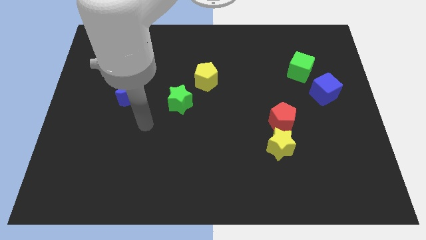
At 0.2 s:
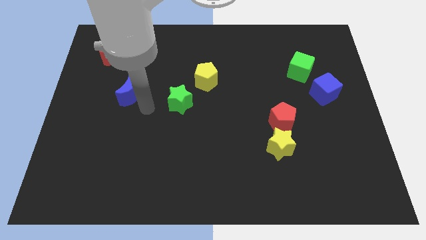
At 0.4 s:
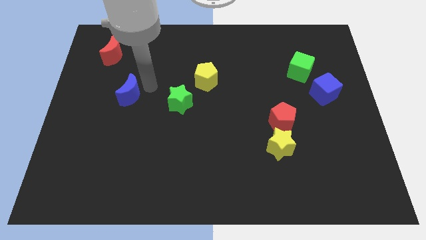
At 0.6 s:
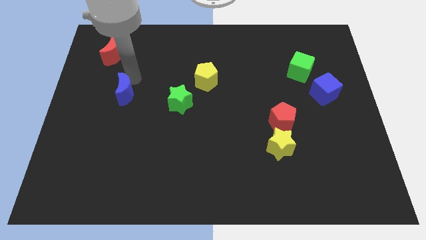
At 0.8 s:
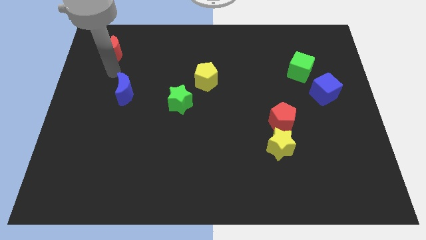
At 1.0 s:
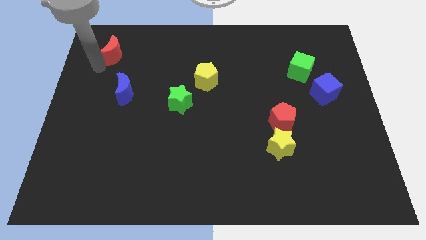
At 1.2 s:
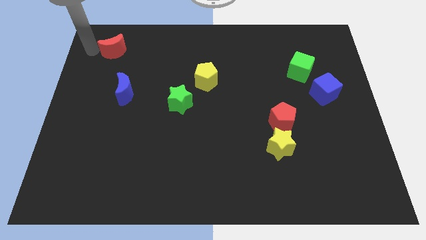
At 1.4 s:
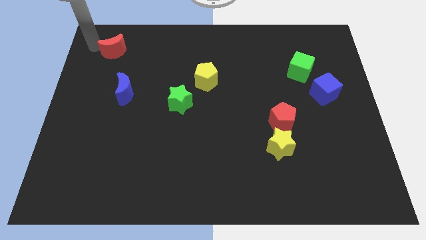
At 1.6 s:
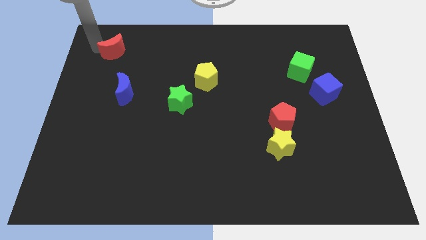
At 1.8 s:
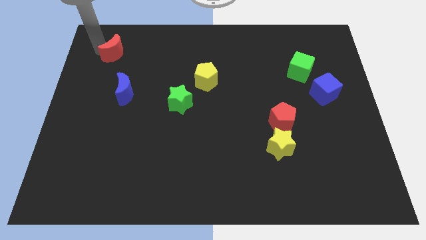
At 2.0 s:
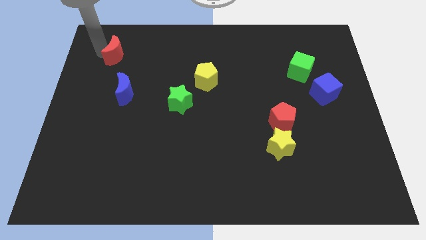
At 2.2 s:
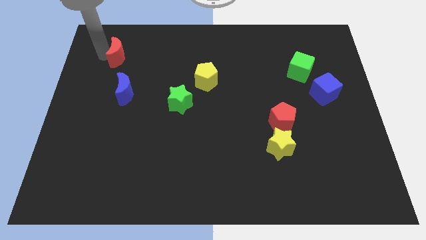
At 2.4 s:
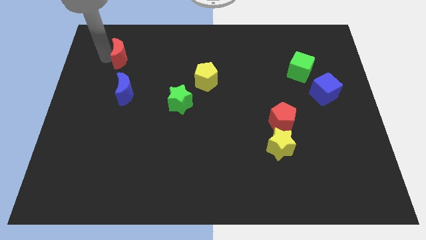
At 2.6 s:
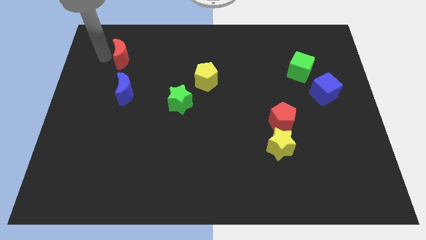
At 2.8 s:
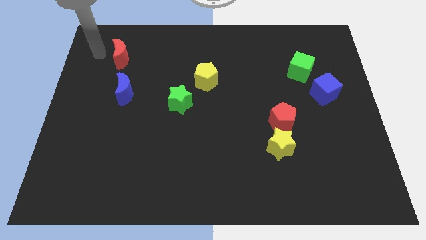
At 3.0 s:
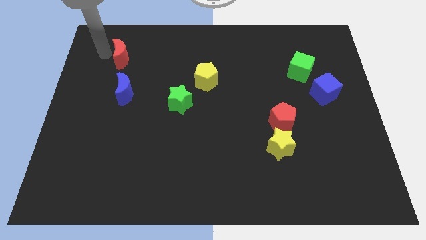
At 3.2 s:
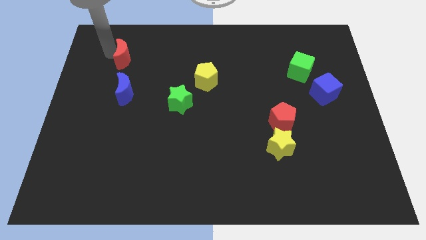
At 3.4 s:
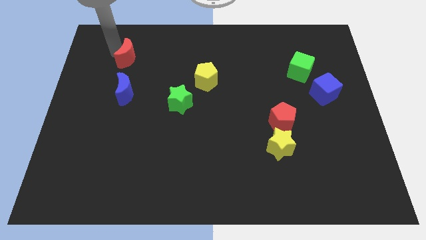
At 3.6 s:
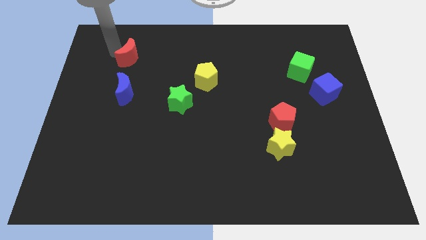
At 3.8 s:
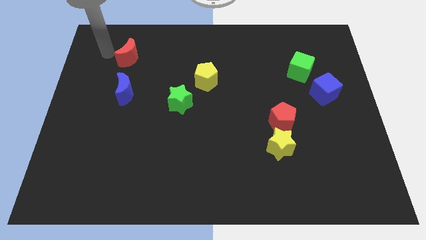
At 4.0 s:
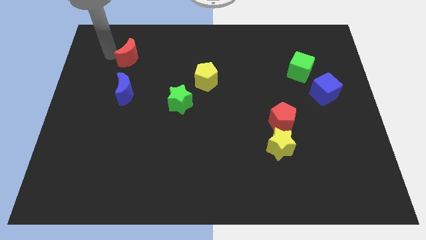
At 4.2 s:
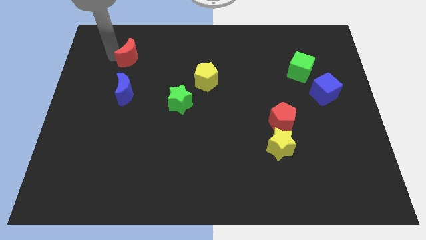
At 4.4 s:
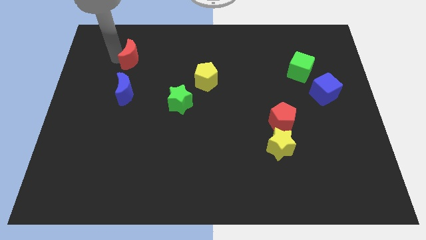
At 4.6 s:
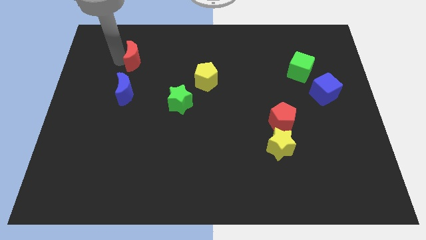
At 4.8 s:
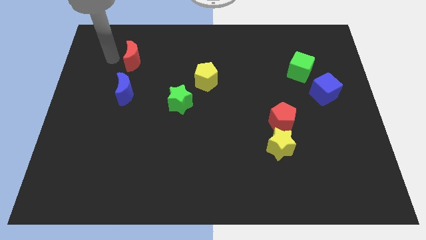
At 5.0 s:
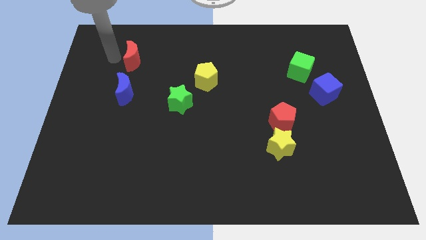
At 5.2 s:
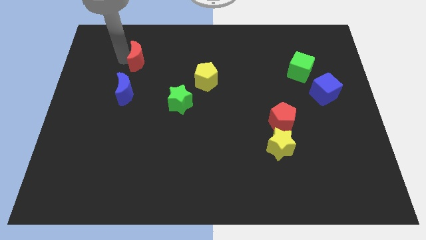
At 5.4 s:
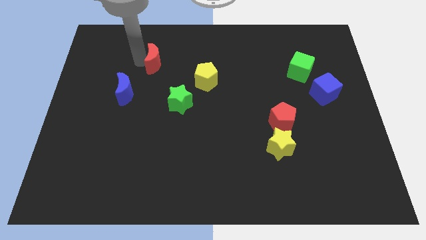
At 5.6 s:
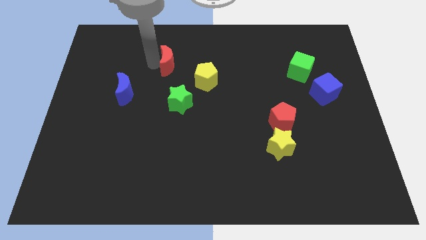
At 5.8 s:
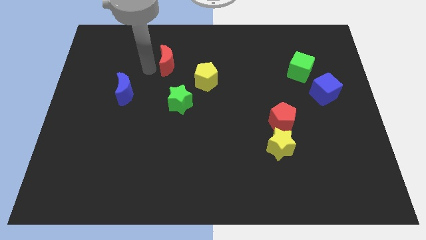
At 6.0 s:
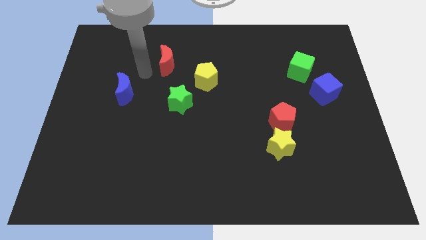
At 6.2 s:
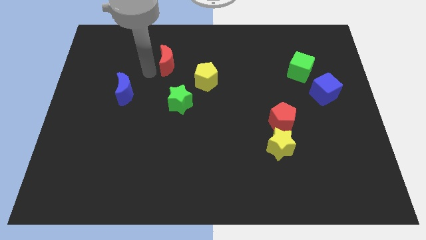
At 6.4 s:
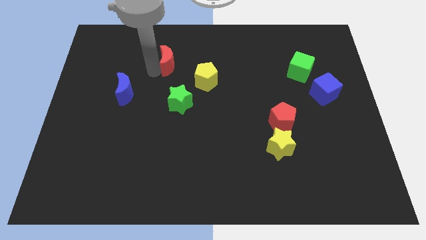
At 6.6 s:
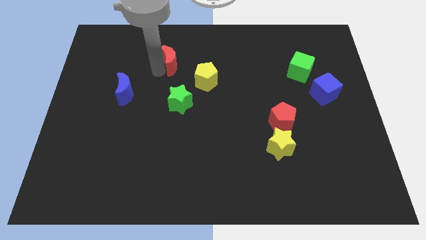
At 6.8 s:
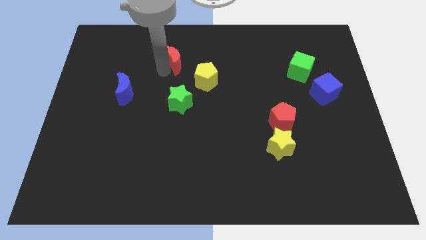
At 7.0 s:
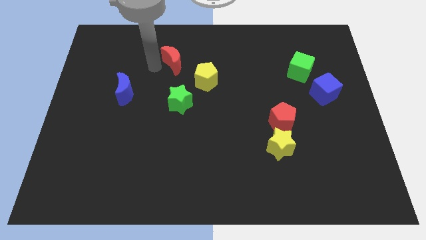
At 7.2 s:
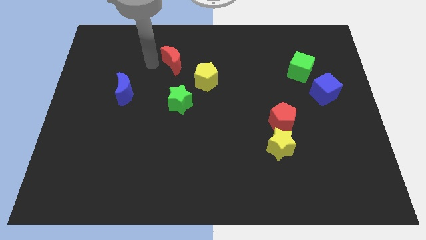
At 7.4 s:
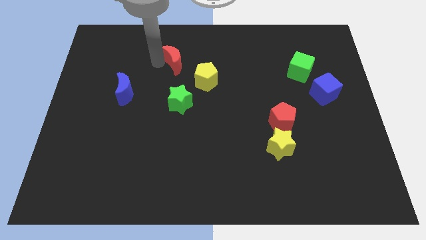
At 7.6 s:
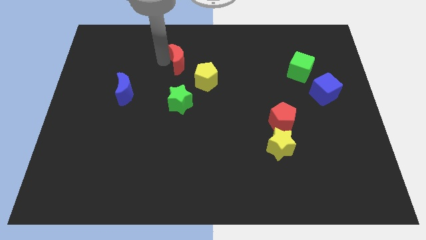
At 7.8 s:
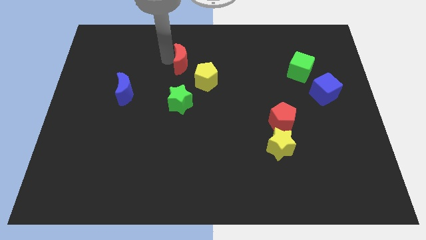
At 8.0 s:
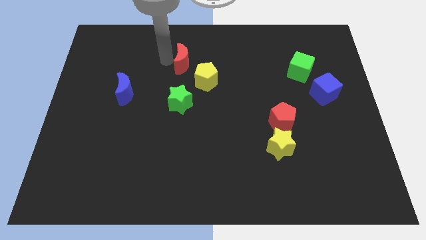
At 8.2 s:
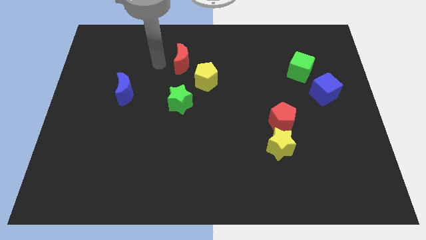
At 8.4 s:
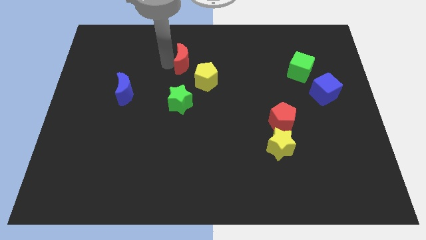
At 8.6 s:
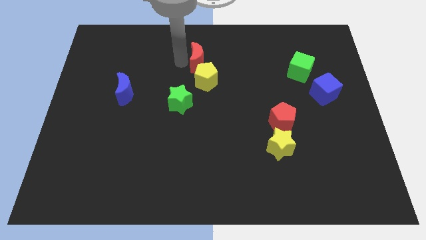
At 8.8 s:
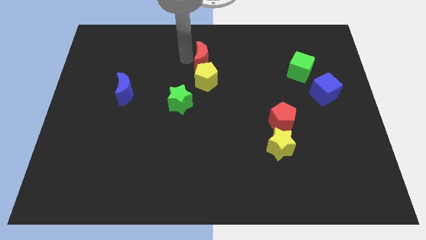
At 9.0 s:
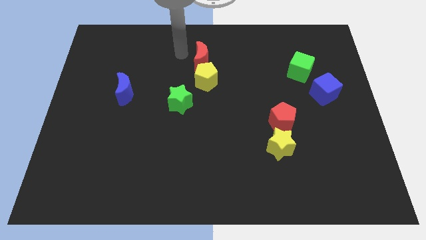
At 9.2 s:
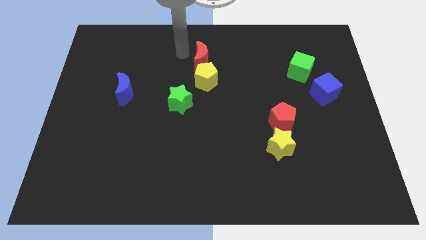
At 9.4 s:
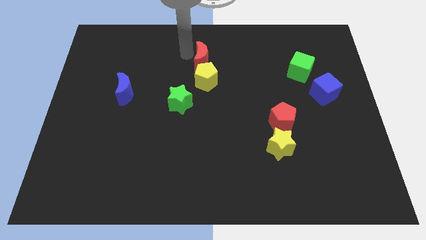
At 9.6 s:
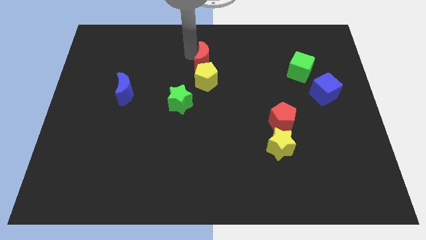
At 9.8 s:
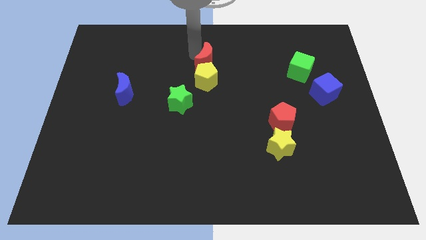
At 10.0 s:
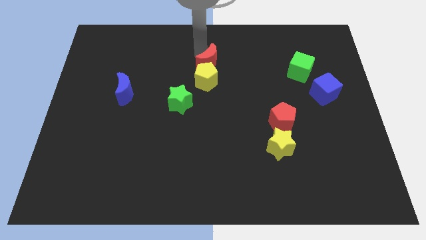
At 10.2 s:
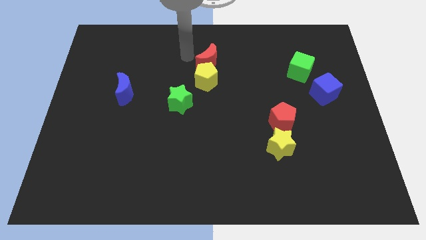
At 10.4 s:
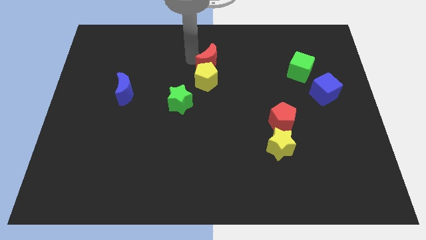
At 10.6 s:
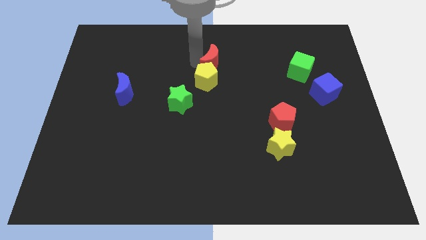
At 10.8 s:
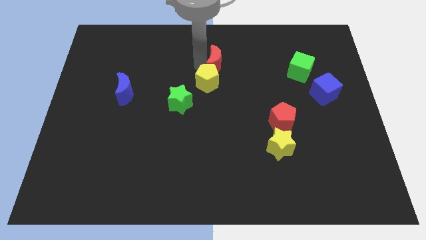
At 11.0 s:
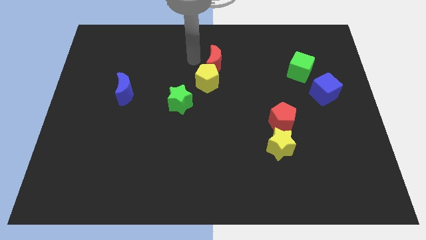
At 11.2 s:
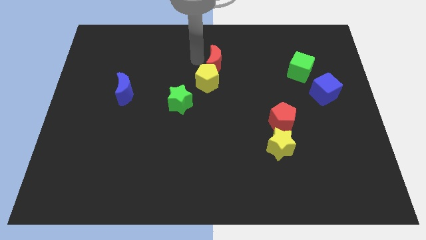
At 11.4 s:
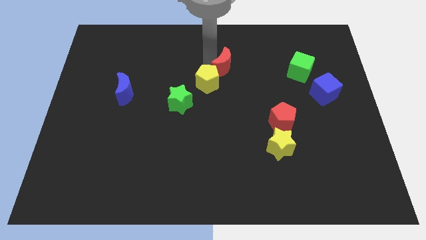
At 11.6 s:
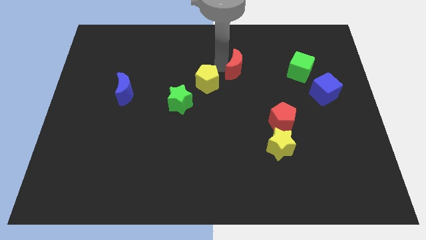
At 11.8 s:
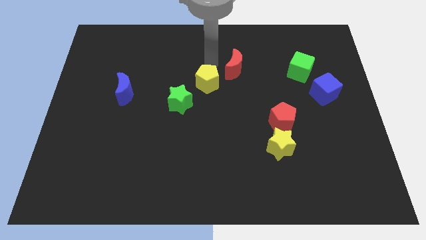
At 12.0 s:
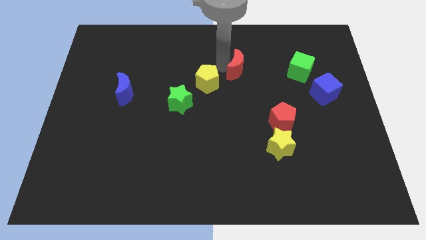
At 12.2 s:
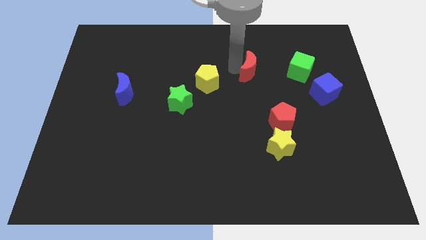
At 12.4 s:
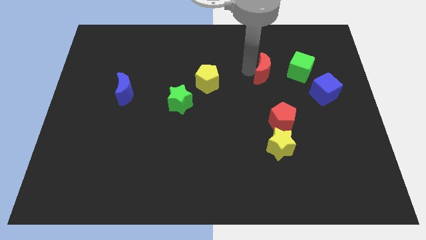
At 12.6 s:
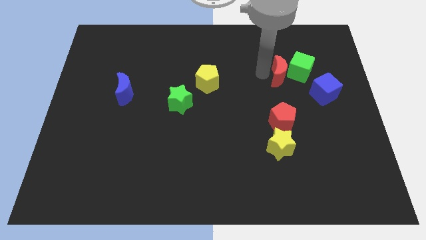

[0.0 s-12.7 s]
slide the red moon next to the green cube

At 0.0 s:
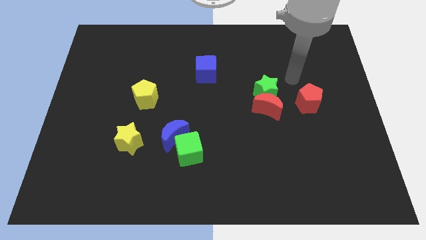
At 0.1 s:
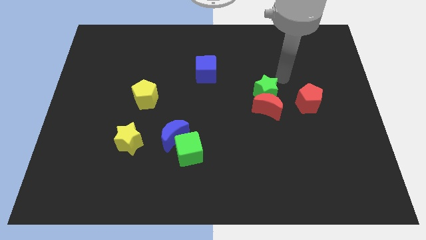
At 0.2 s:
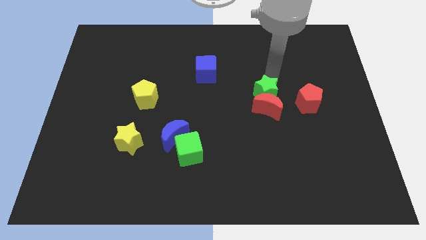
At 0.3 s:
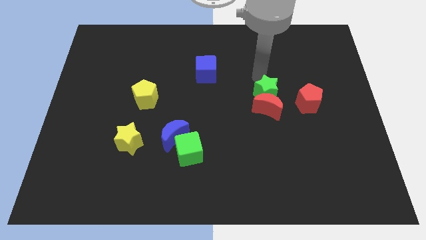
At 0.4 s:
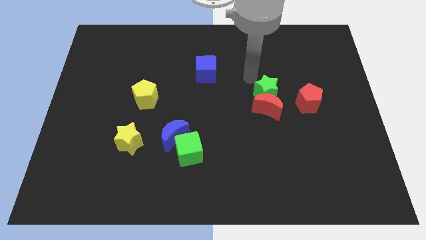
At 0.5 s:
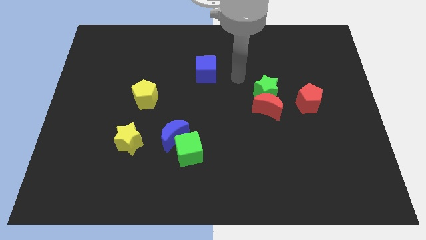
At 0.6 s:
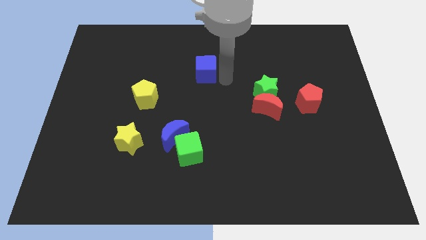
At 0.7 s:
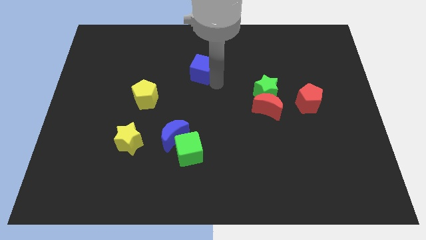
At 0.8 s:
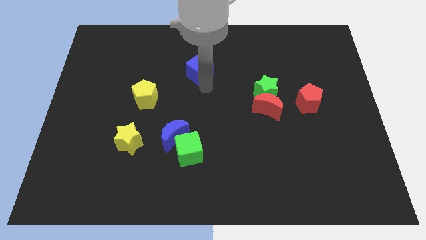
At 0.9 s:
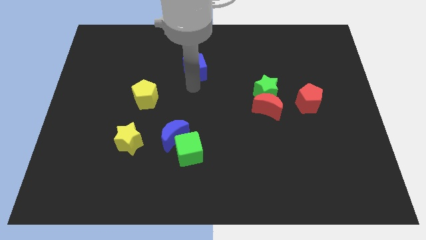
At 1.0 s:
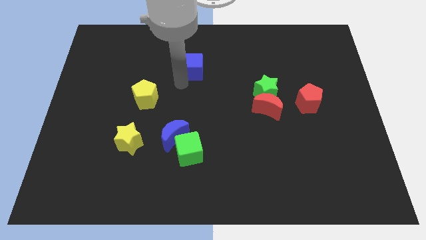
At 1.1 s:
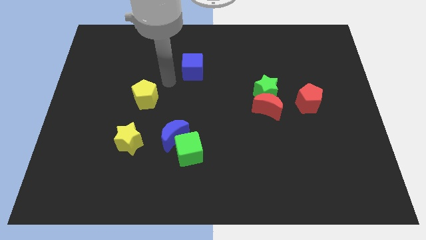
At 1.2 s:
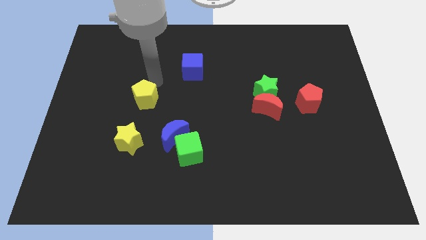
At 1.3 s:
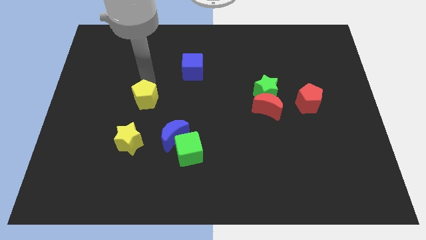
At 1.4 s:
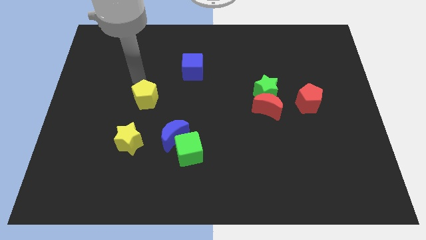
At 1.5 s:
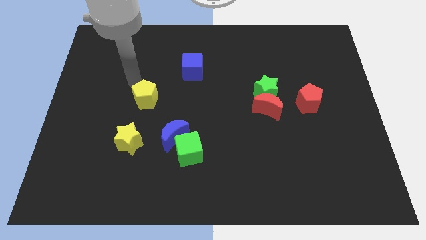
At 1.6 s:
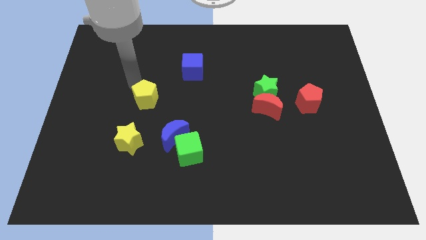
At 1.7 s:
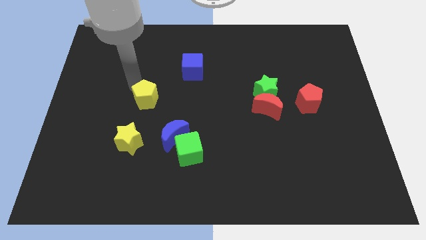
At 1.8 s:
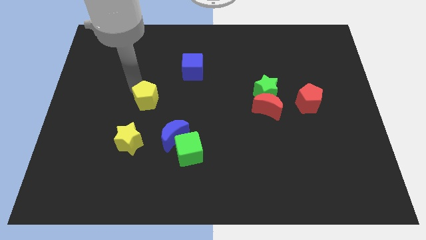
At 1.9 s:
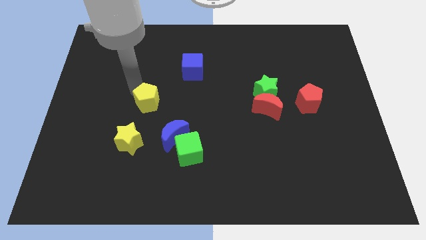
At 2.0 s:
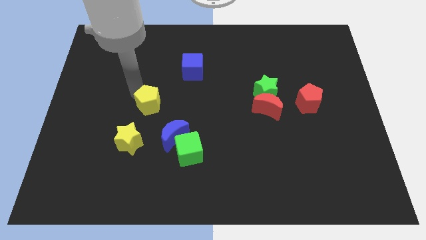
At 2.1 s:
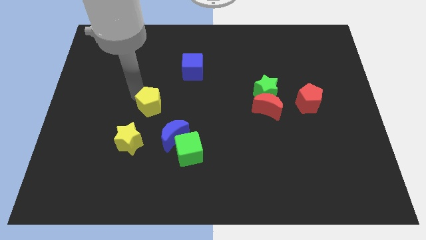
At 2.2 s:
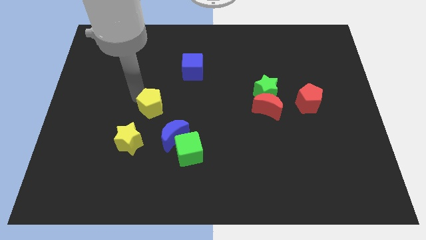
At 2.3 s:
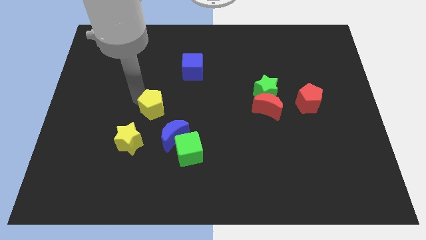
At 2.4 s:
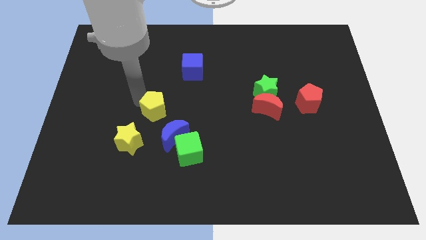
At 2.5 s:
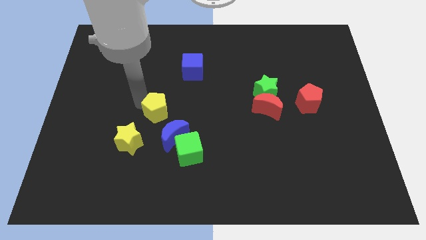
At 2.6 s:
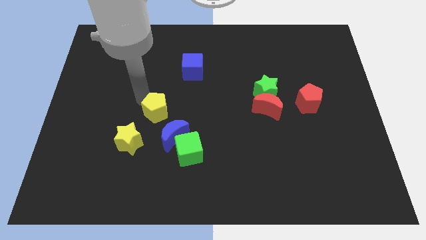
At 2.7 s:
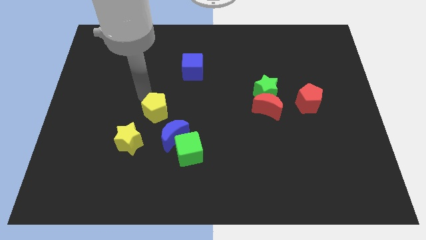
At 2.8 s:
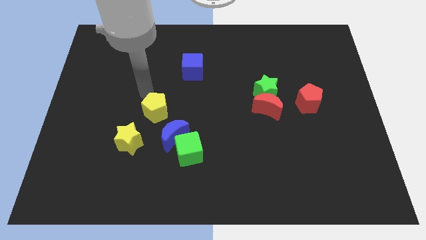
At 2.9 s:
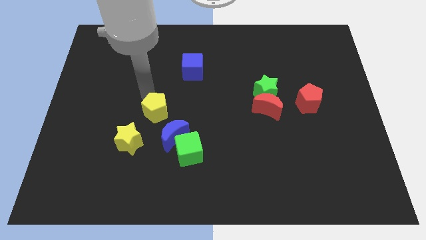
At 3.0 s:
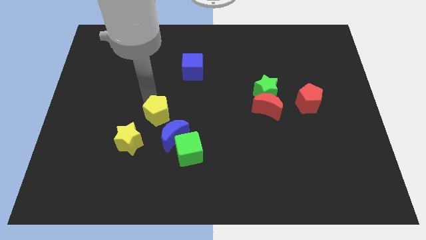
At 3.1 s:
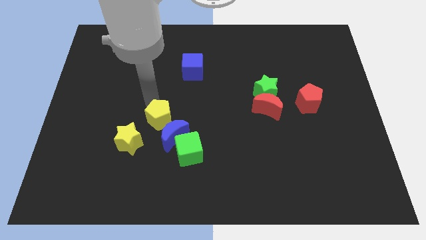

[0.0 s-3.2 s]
move the yellow pentagon close to the blue moon
